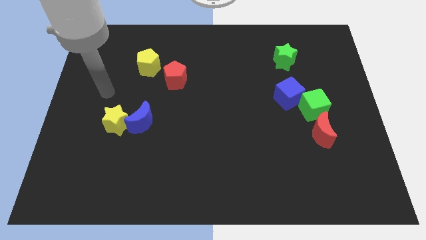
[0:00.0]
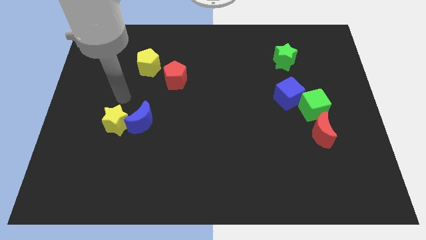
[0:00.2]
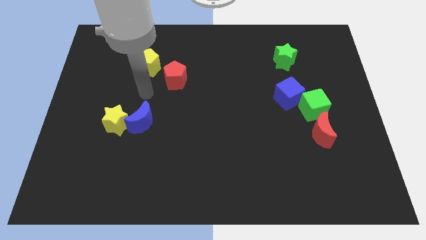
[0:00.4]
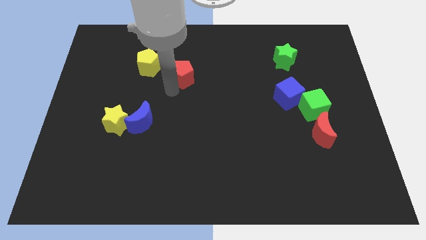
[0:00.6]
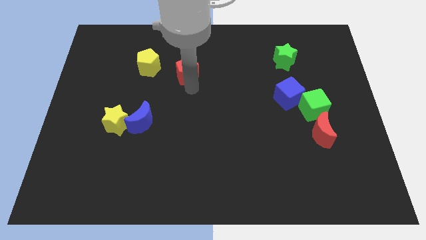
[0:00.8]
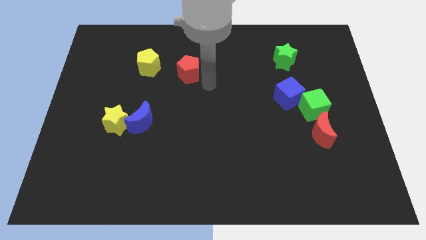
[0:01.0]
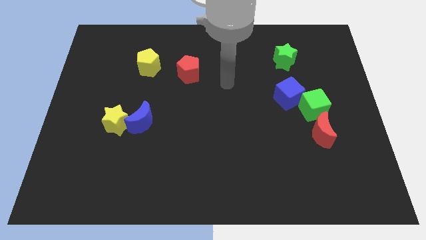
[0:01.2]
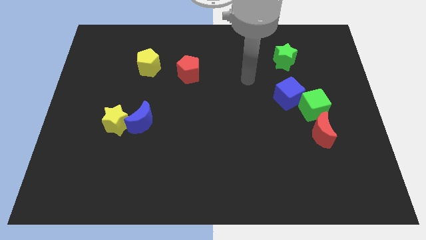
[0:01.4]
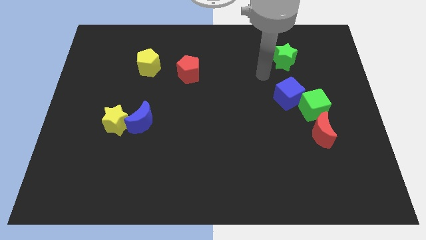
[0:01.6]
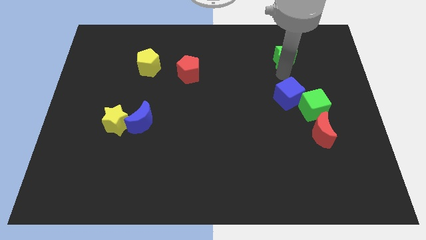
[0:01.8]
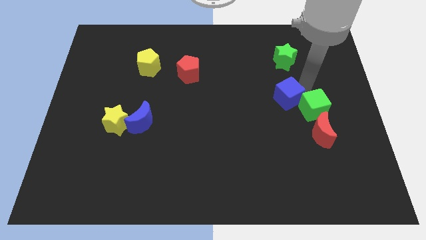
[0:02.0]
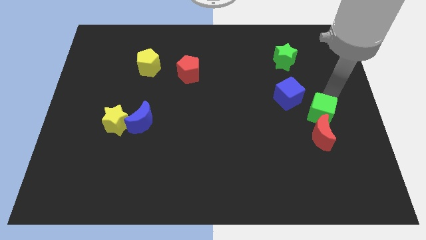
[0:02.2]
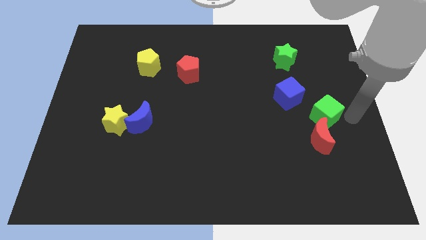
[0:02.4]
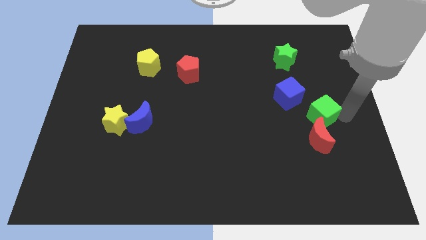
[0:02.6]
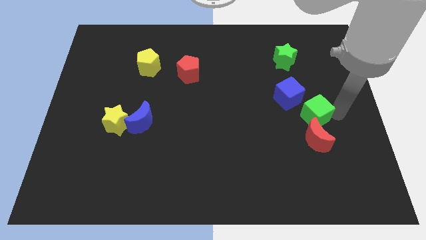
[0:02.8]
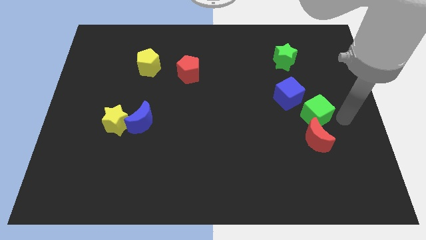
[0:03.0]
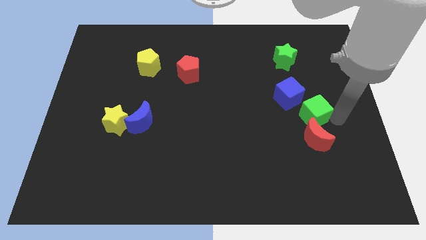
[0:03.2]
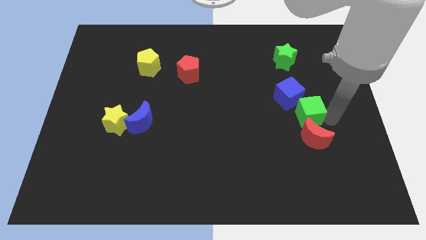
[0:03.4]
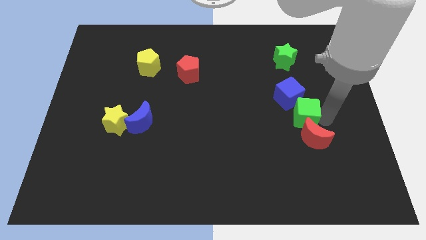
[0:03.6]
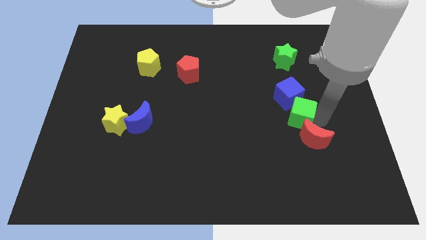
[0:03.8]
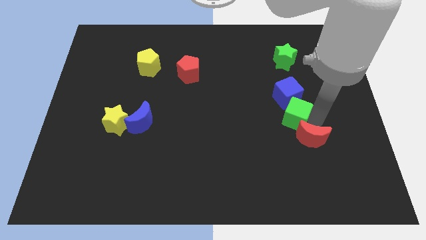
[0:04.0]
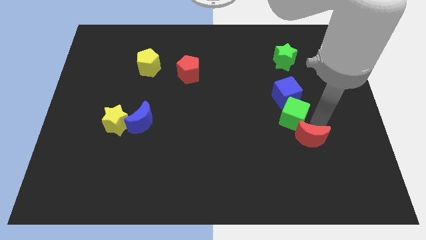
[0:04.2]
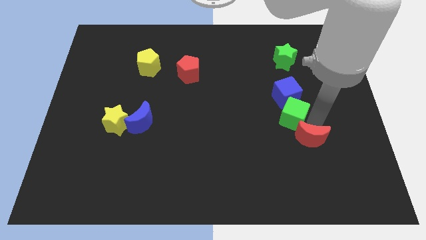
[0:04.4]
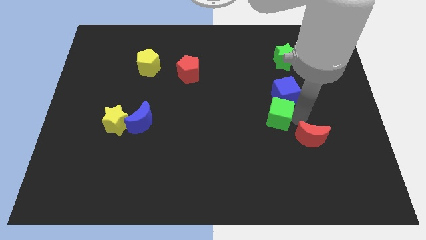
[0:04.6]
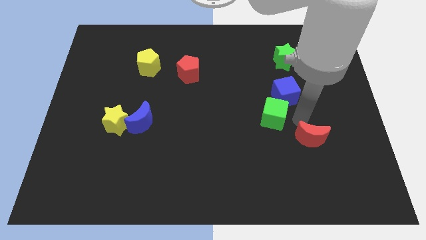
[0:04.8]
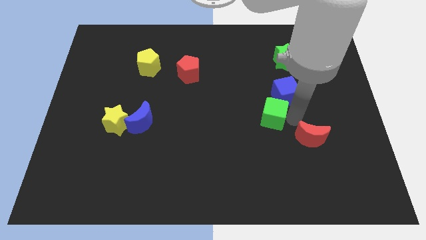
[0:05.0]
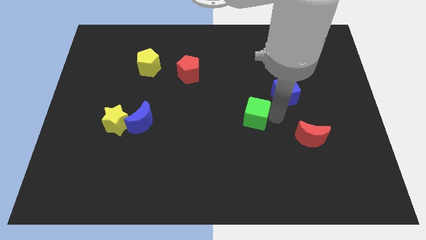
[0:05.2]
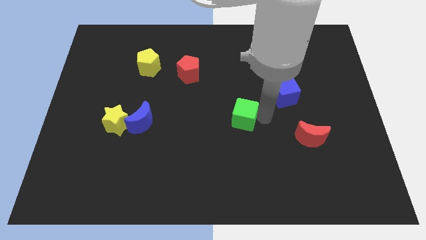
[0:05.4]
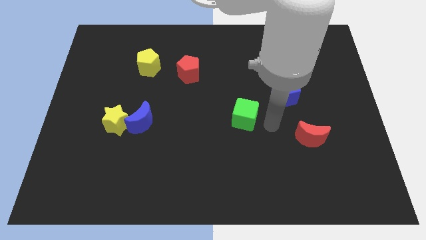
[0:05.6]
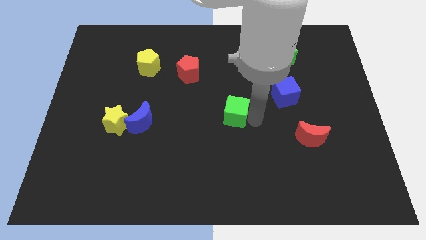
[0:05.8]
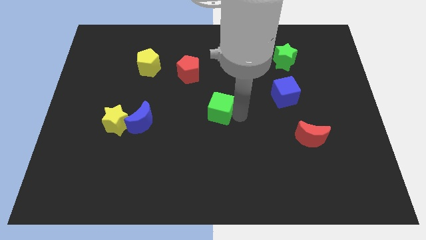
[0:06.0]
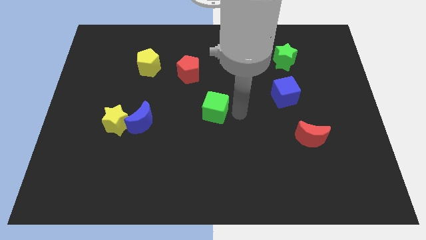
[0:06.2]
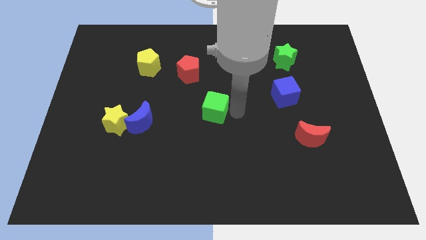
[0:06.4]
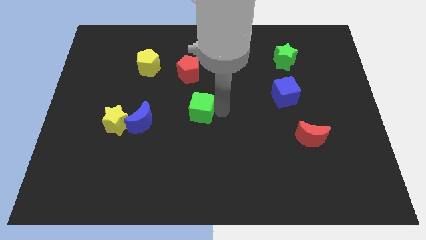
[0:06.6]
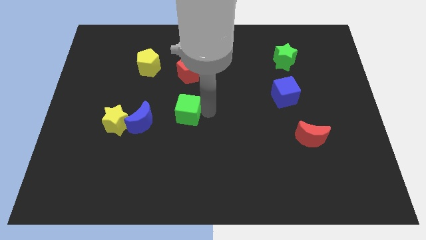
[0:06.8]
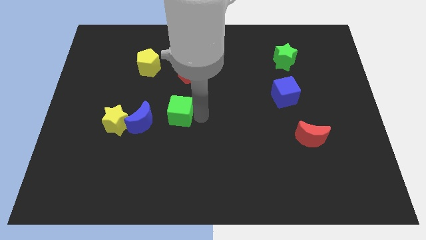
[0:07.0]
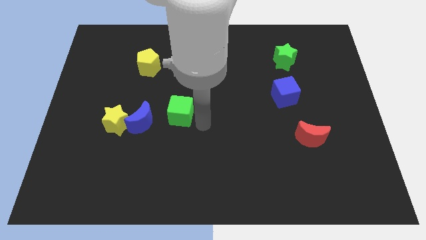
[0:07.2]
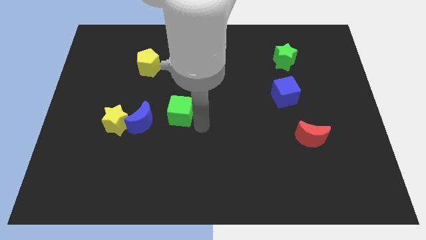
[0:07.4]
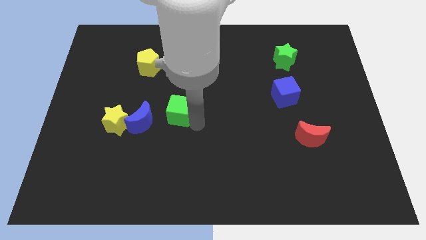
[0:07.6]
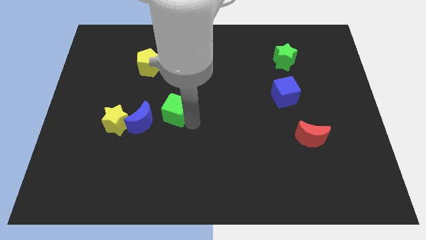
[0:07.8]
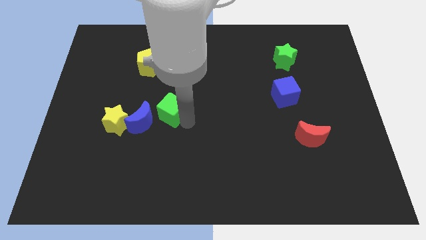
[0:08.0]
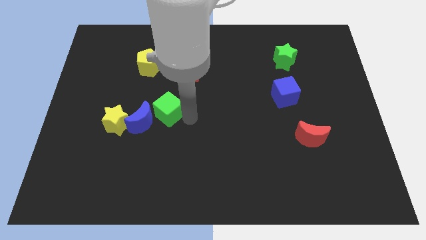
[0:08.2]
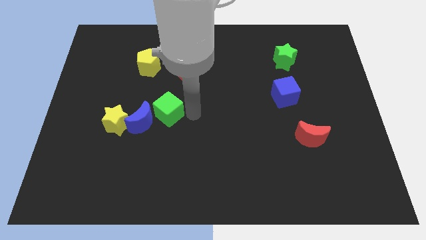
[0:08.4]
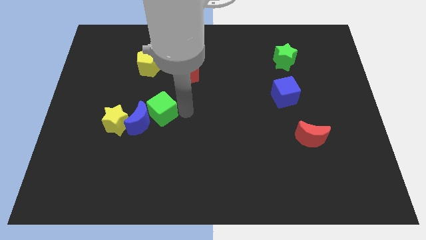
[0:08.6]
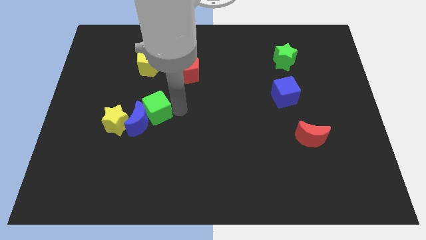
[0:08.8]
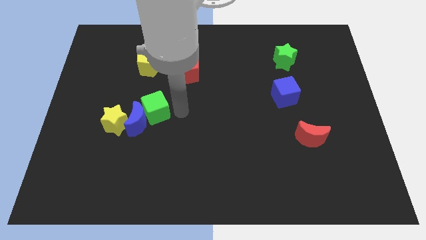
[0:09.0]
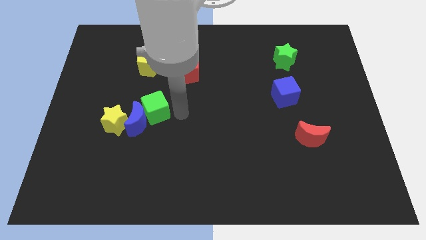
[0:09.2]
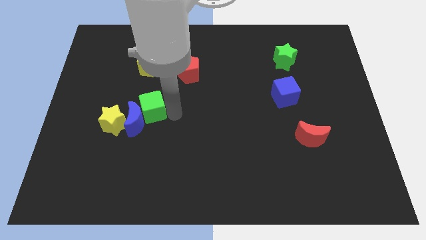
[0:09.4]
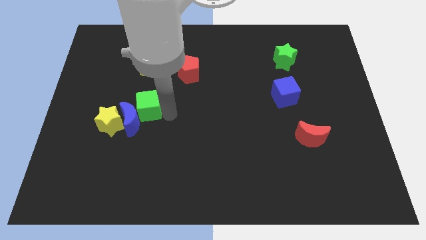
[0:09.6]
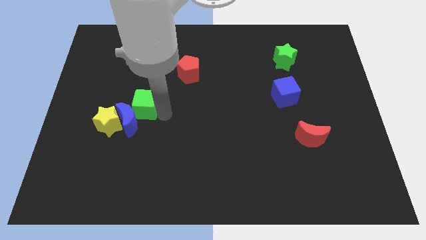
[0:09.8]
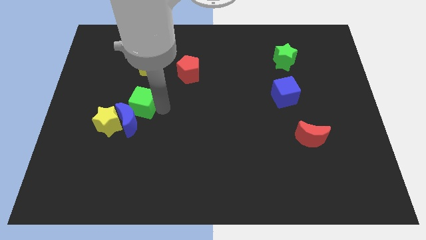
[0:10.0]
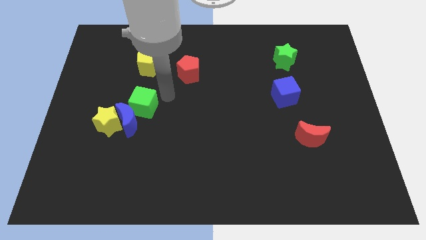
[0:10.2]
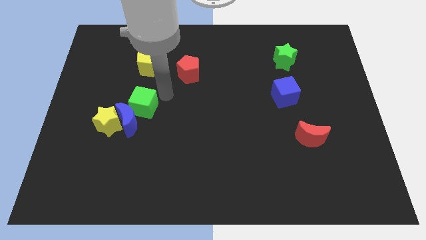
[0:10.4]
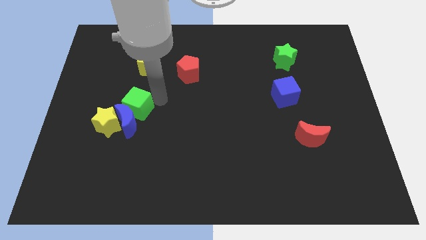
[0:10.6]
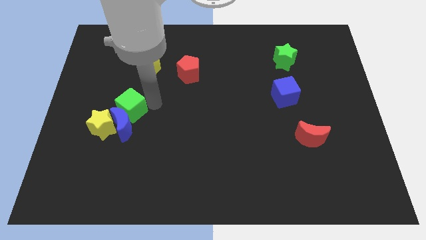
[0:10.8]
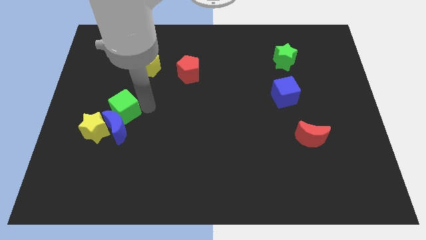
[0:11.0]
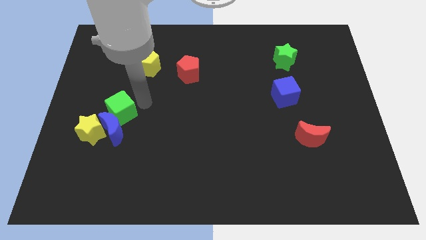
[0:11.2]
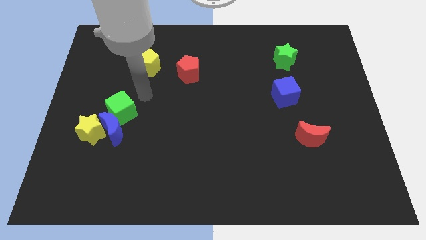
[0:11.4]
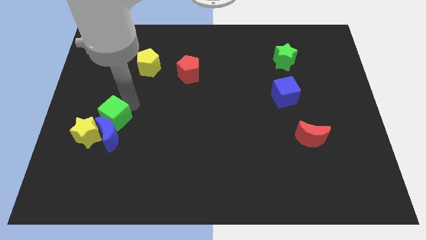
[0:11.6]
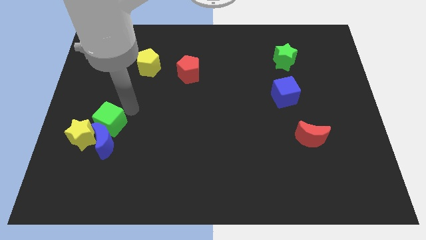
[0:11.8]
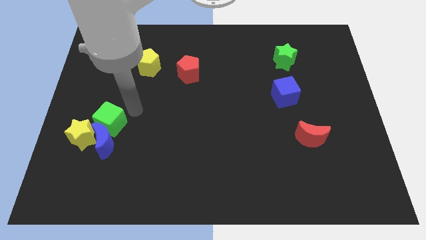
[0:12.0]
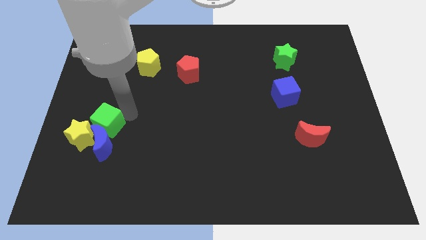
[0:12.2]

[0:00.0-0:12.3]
slide the green cube close to the yellow star

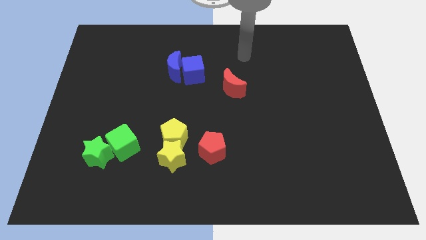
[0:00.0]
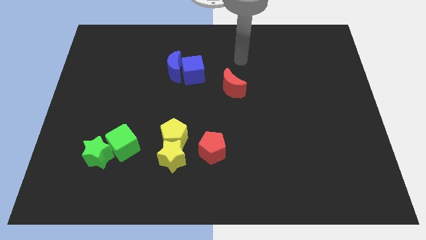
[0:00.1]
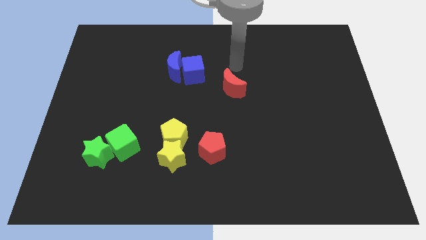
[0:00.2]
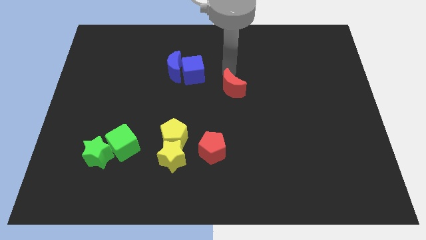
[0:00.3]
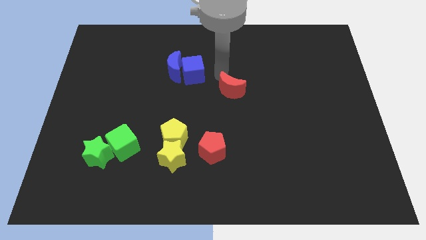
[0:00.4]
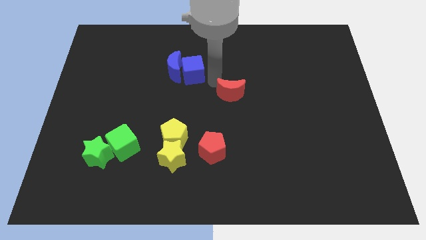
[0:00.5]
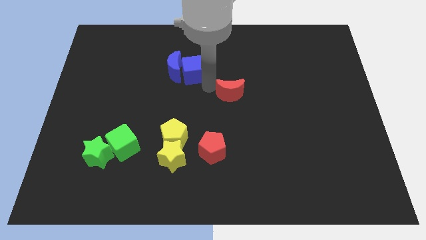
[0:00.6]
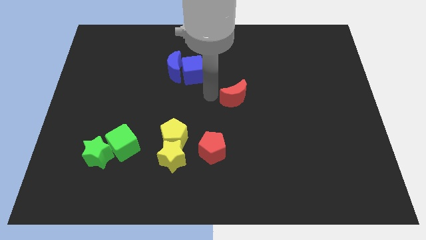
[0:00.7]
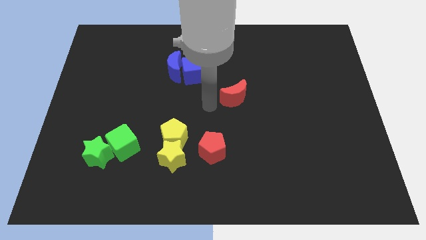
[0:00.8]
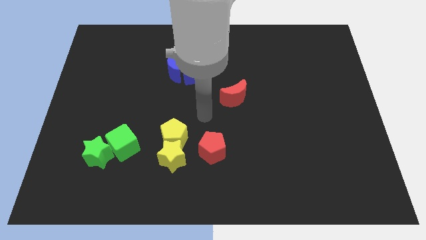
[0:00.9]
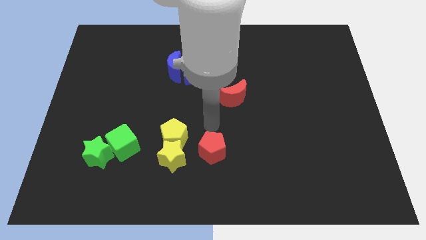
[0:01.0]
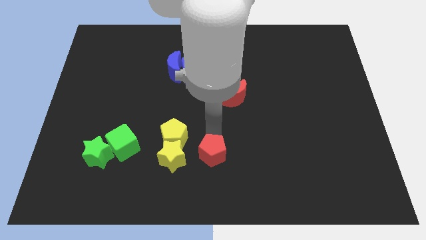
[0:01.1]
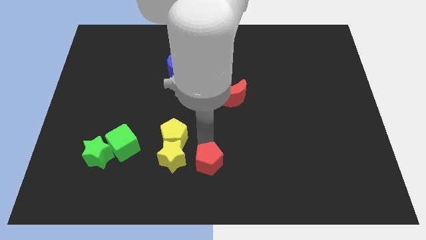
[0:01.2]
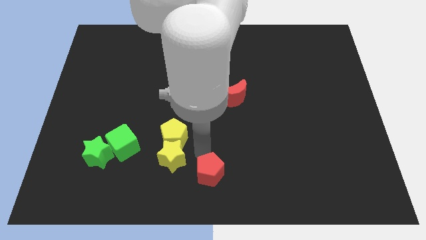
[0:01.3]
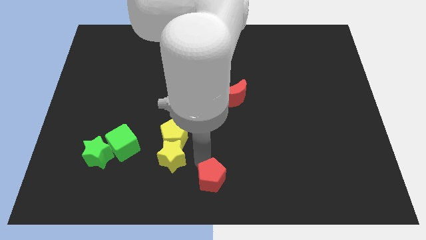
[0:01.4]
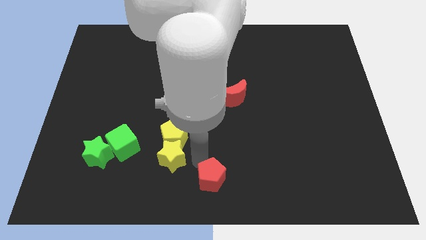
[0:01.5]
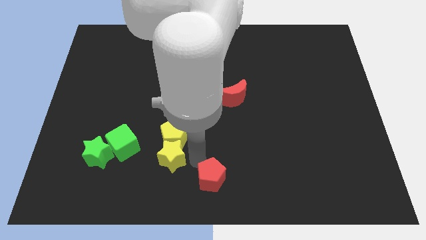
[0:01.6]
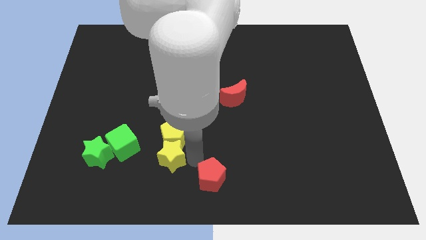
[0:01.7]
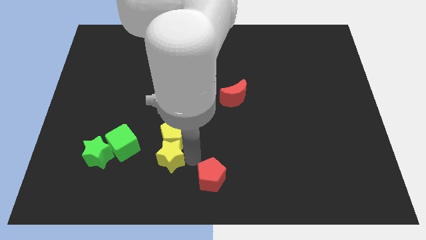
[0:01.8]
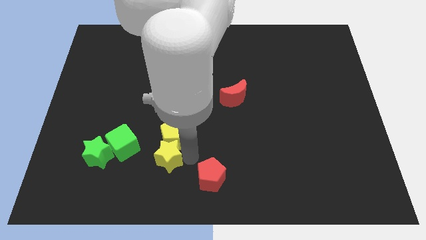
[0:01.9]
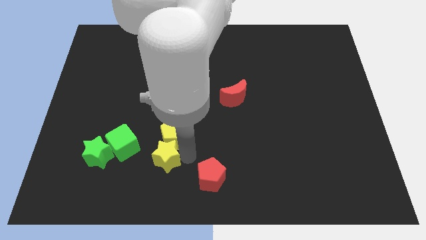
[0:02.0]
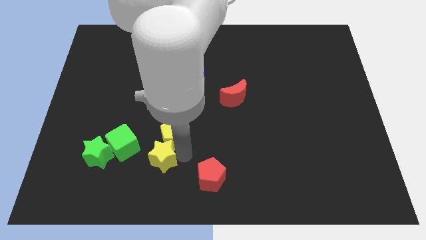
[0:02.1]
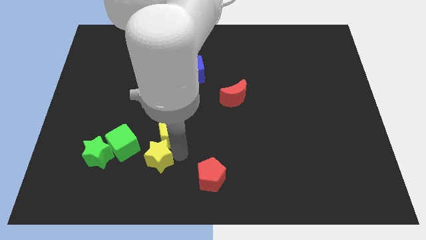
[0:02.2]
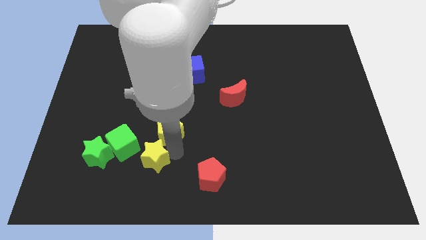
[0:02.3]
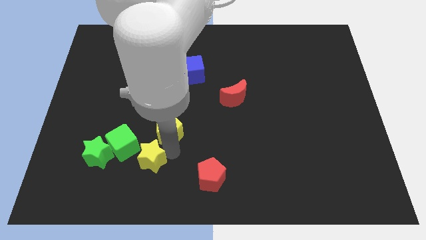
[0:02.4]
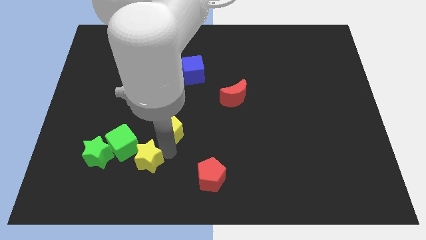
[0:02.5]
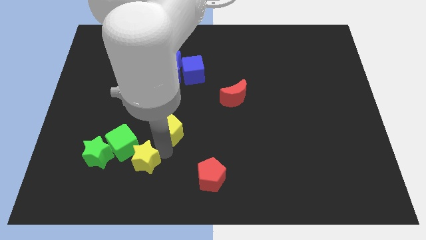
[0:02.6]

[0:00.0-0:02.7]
move the yellow star towards the green cube
